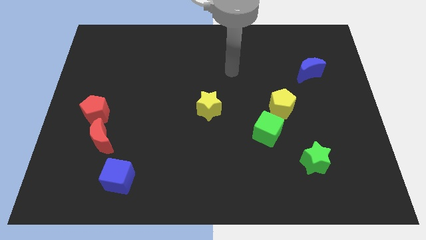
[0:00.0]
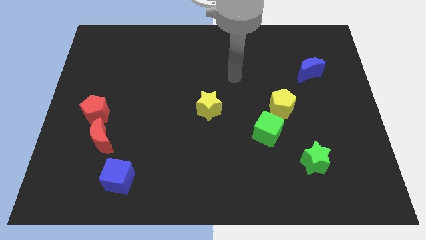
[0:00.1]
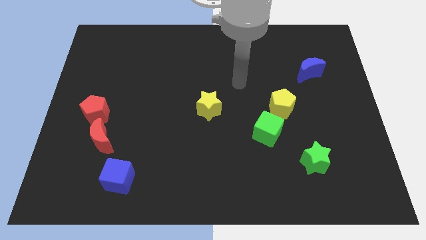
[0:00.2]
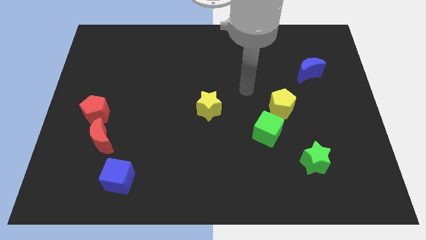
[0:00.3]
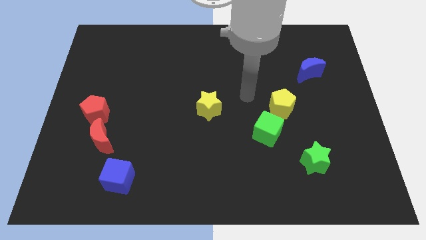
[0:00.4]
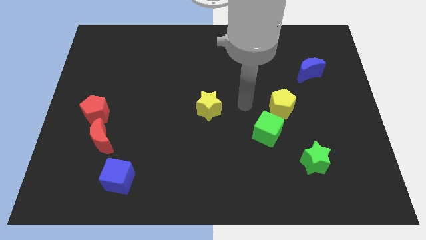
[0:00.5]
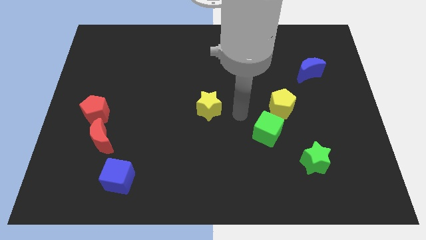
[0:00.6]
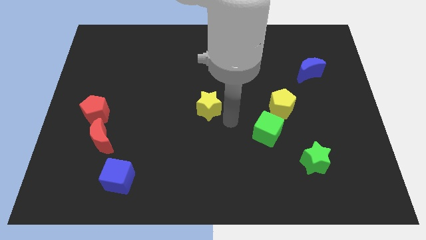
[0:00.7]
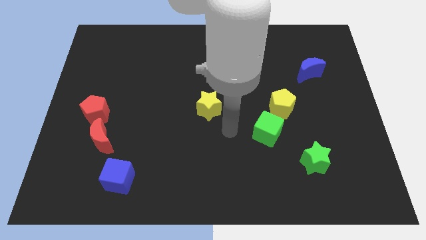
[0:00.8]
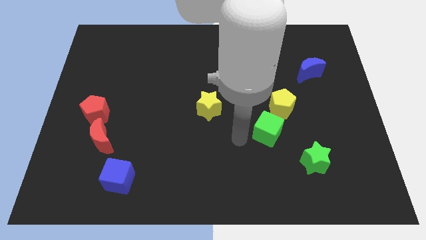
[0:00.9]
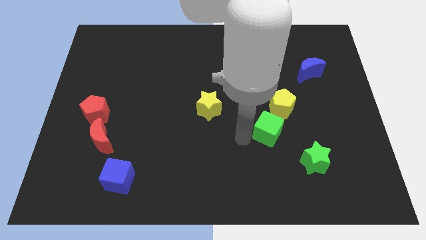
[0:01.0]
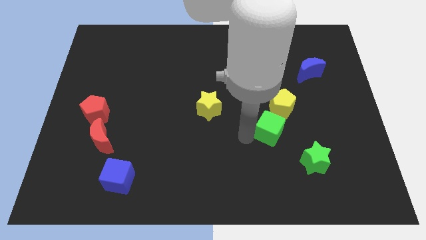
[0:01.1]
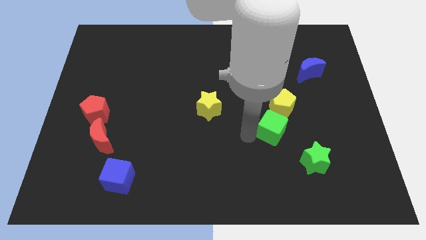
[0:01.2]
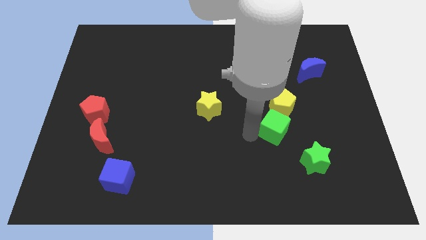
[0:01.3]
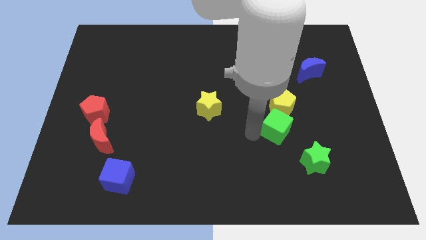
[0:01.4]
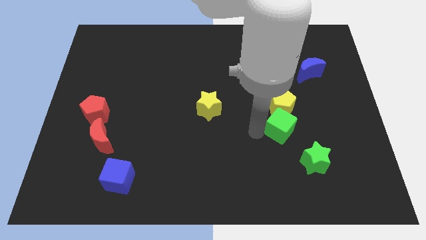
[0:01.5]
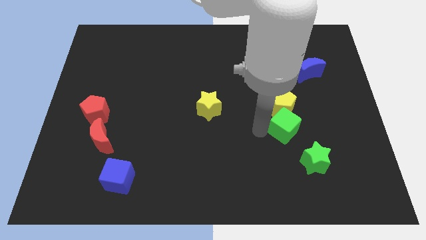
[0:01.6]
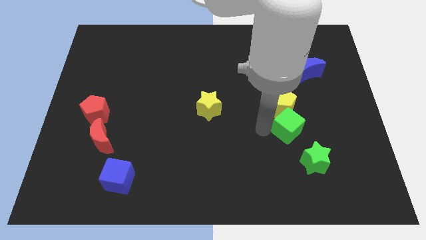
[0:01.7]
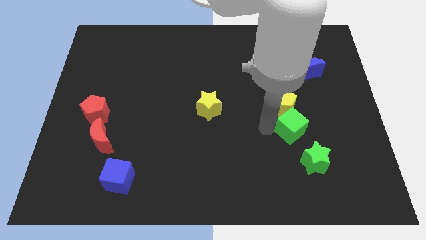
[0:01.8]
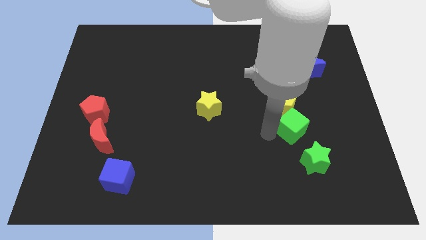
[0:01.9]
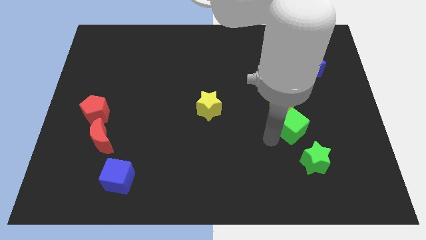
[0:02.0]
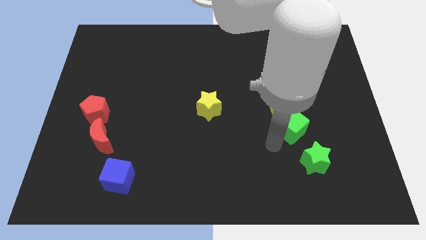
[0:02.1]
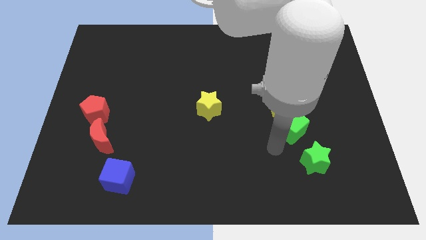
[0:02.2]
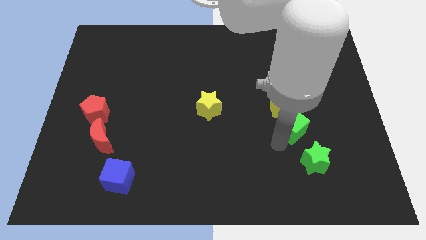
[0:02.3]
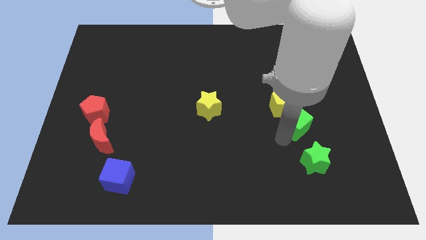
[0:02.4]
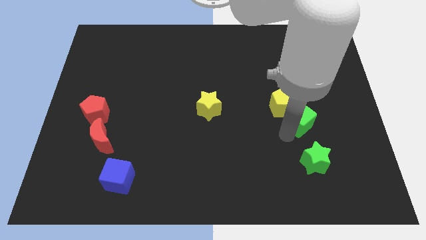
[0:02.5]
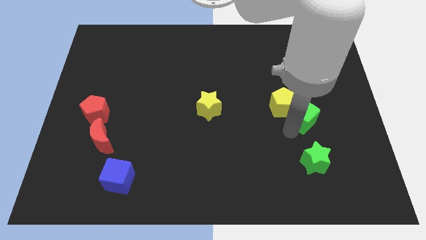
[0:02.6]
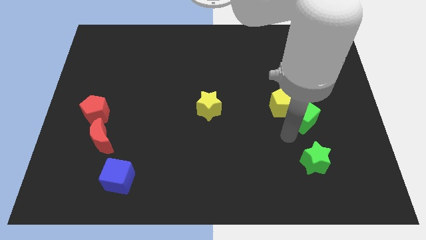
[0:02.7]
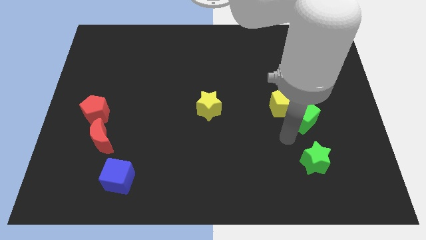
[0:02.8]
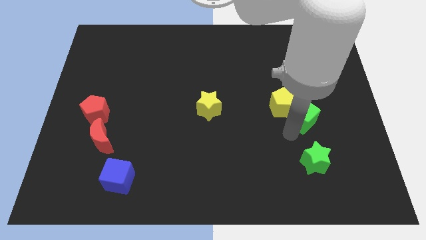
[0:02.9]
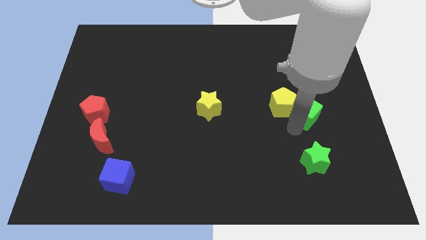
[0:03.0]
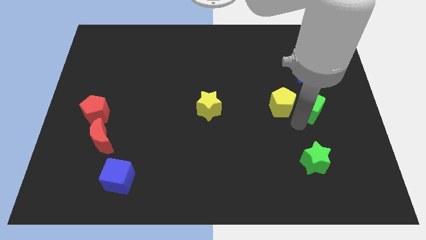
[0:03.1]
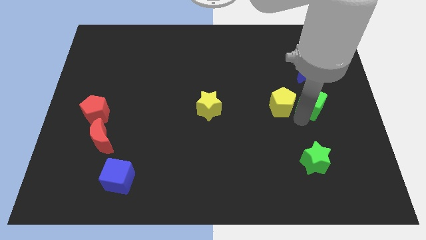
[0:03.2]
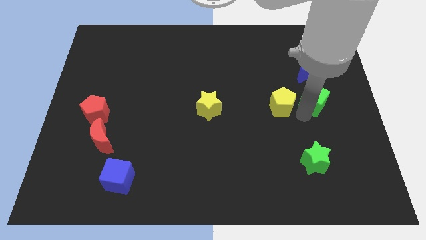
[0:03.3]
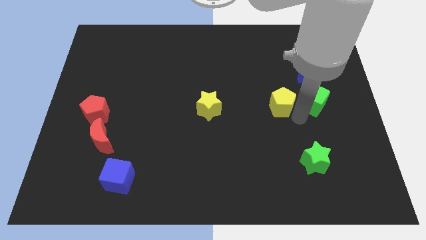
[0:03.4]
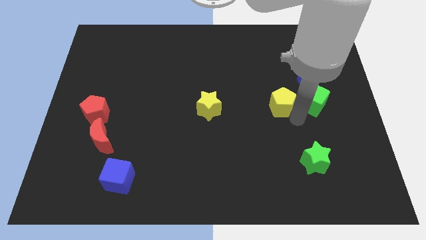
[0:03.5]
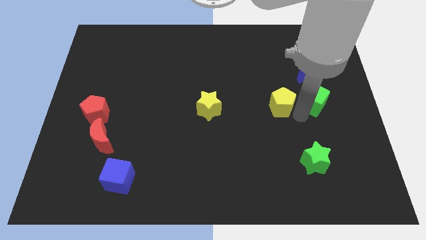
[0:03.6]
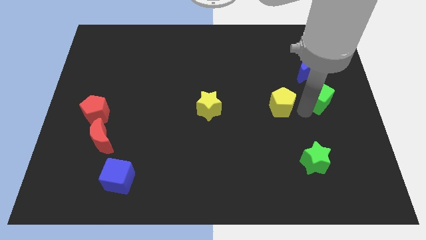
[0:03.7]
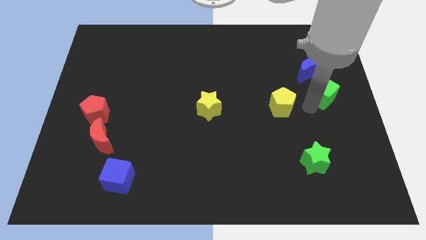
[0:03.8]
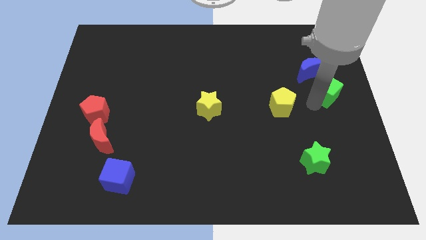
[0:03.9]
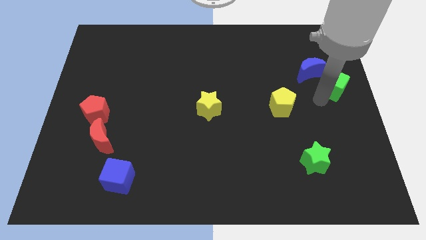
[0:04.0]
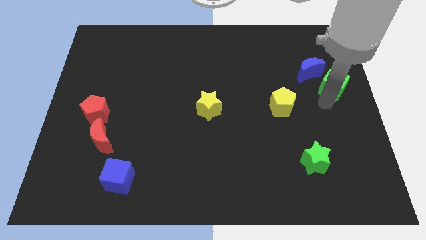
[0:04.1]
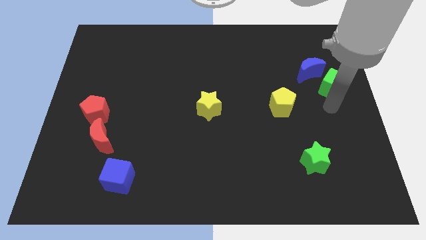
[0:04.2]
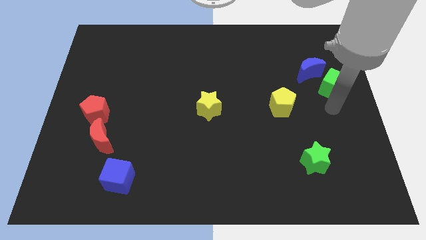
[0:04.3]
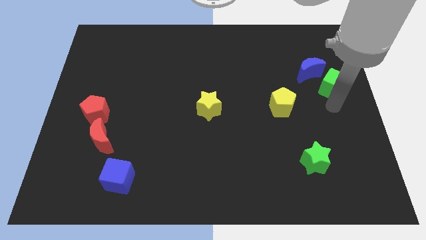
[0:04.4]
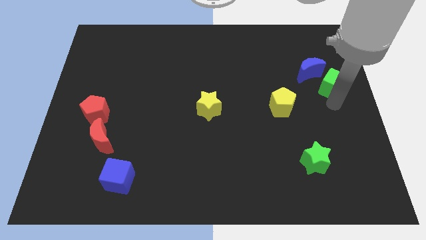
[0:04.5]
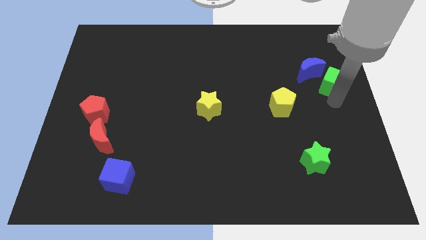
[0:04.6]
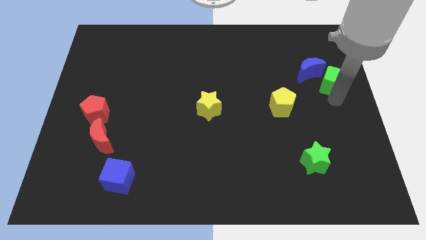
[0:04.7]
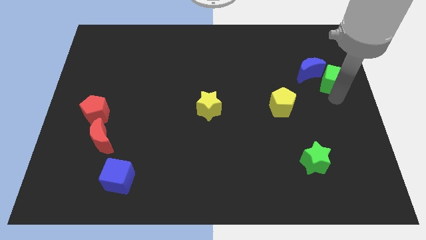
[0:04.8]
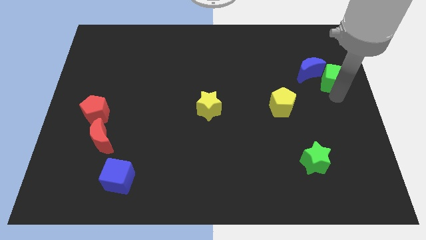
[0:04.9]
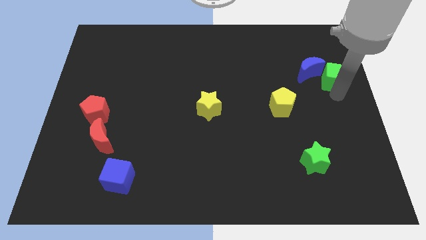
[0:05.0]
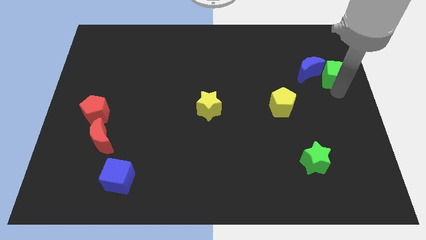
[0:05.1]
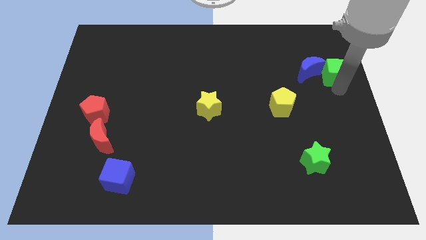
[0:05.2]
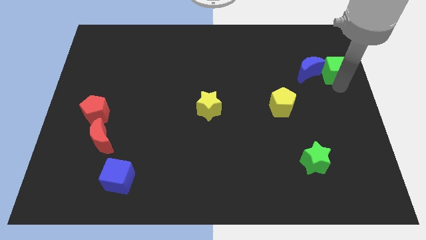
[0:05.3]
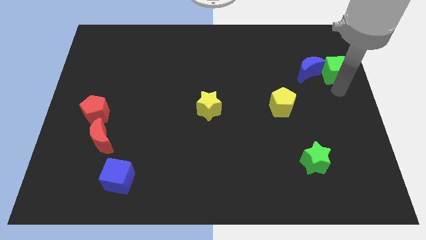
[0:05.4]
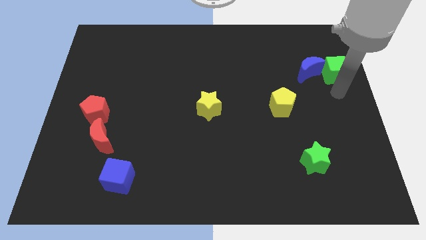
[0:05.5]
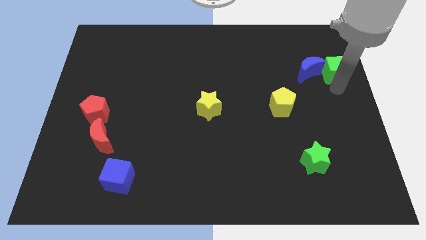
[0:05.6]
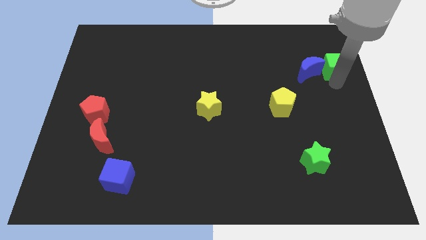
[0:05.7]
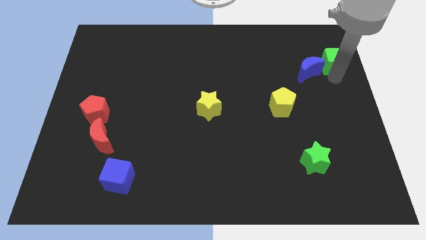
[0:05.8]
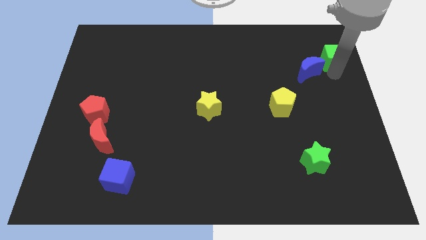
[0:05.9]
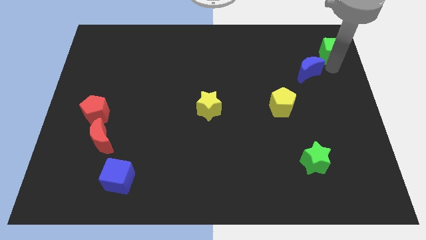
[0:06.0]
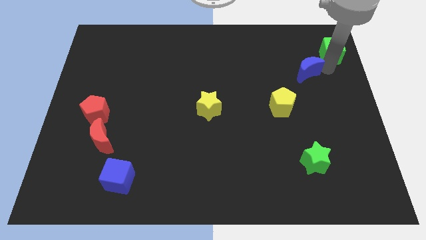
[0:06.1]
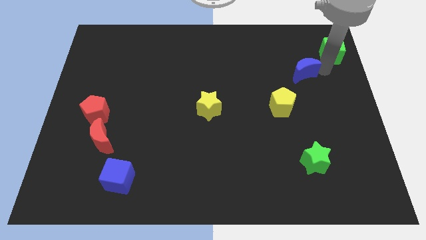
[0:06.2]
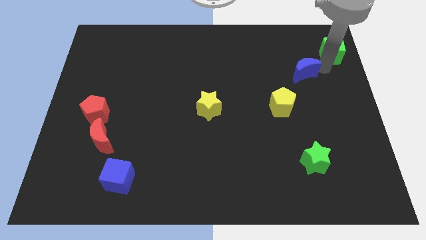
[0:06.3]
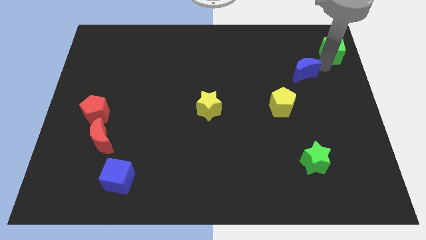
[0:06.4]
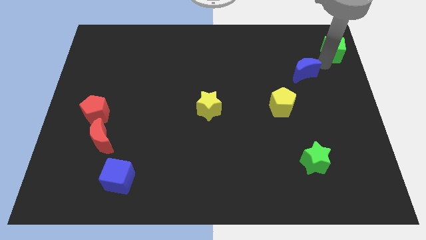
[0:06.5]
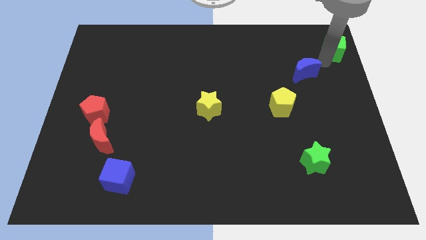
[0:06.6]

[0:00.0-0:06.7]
slide the green cube to the upper right corner

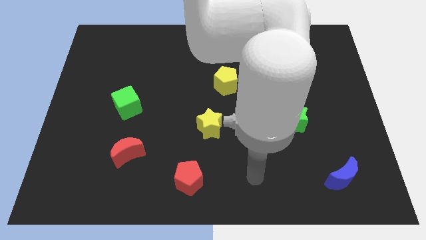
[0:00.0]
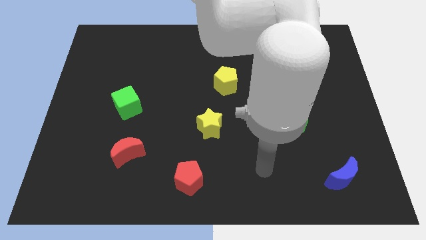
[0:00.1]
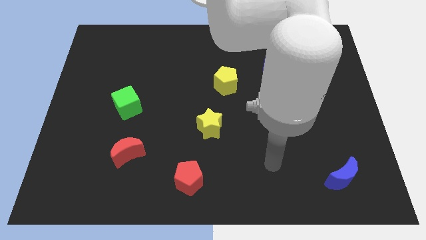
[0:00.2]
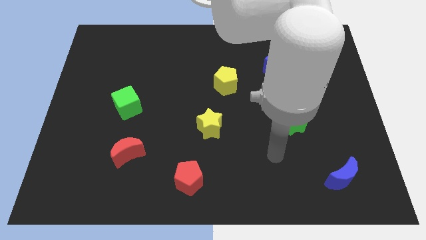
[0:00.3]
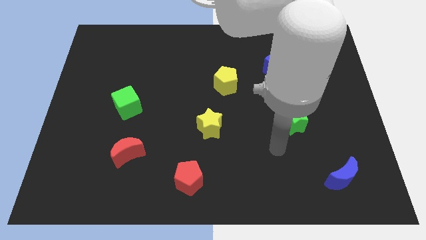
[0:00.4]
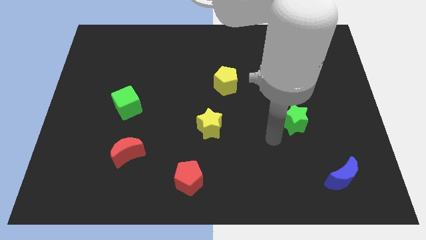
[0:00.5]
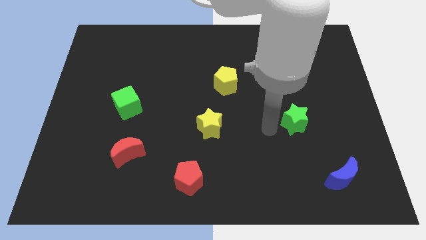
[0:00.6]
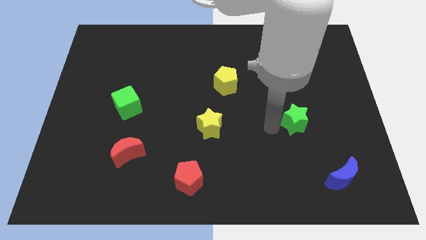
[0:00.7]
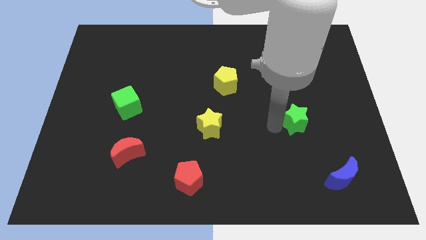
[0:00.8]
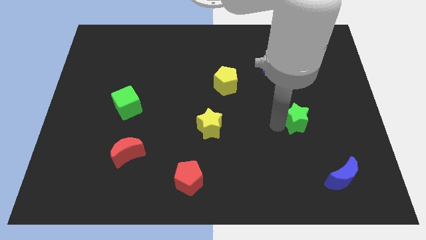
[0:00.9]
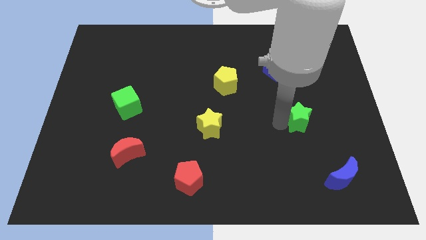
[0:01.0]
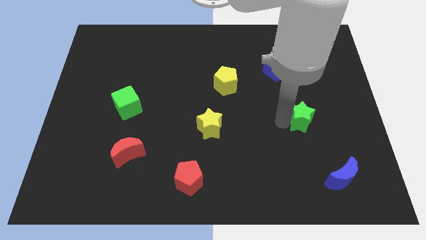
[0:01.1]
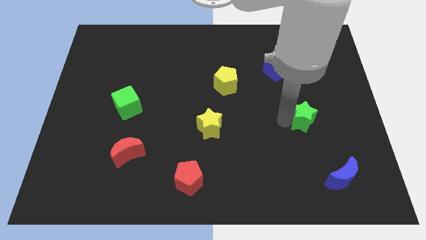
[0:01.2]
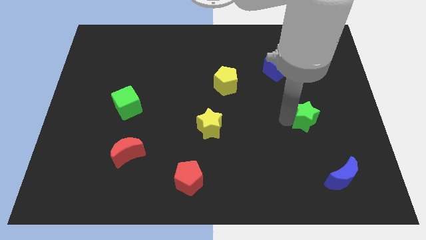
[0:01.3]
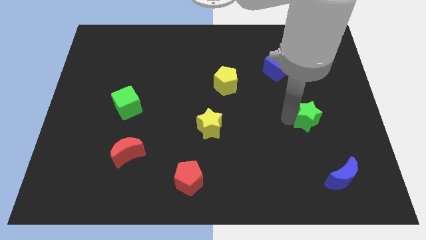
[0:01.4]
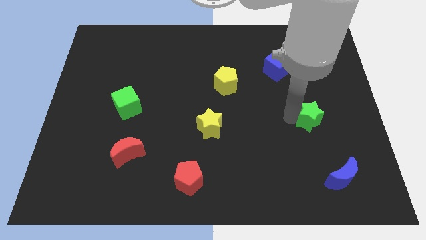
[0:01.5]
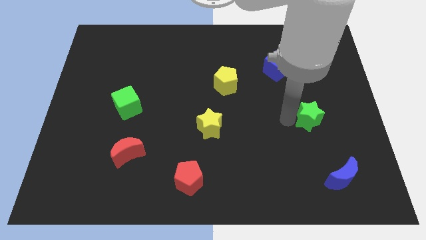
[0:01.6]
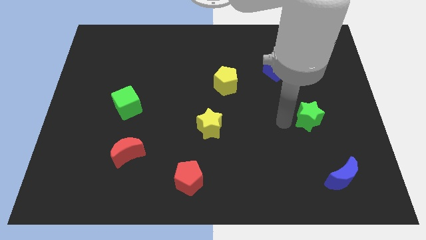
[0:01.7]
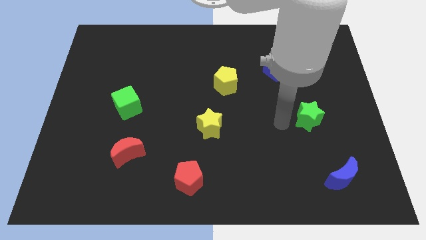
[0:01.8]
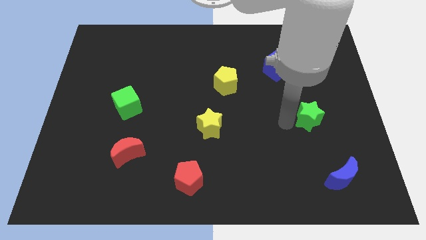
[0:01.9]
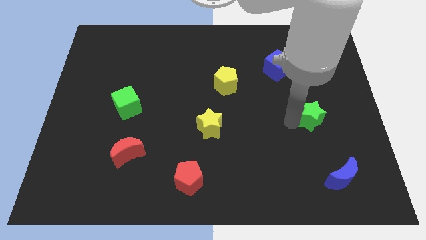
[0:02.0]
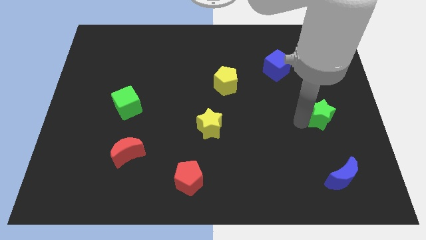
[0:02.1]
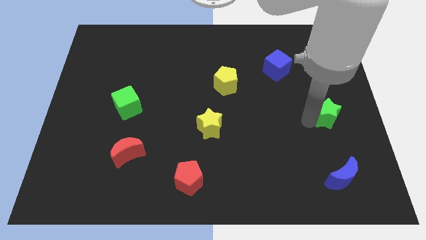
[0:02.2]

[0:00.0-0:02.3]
put the green star to the right side of the board
